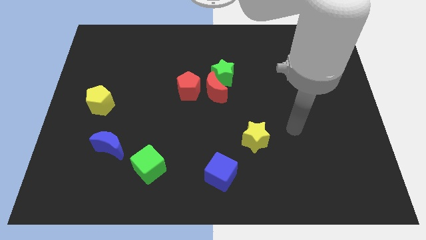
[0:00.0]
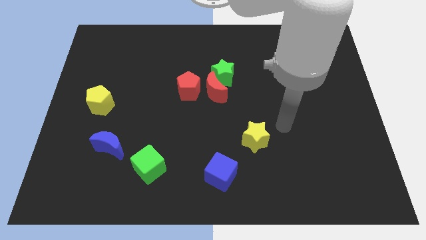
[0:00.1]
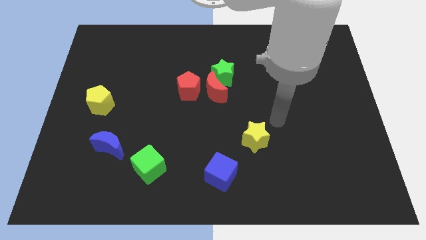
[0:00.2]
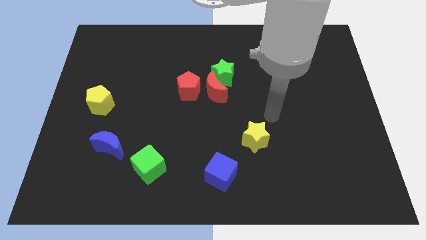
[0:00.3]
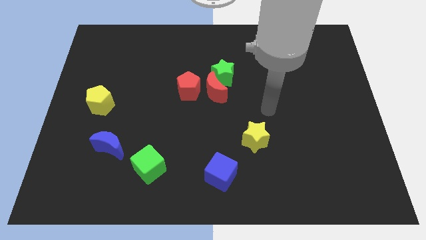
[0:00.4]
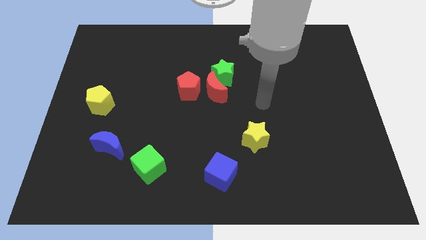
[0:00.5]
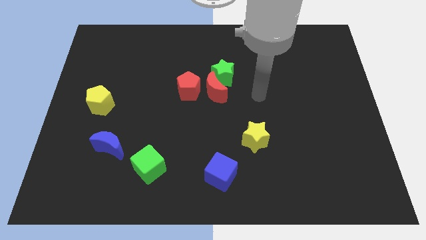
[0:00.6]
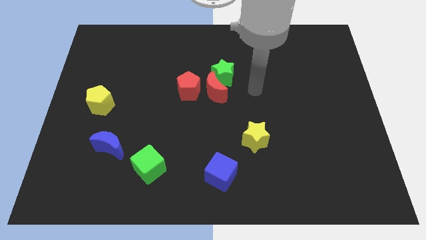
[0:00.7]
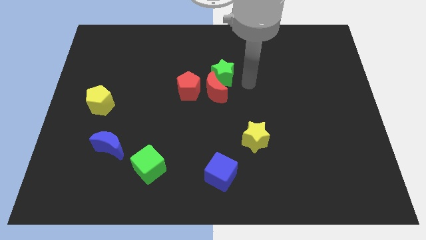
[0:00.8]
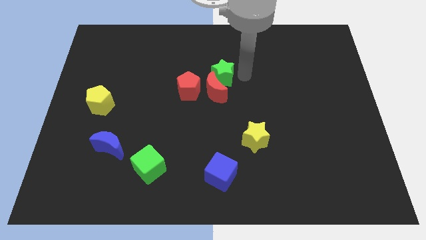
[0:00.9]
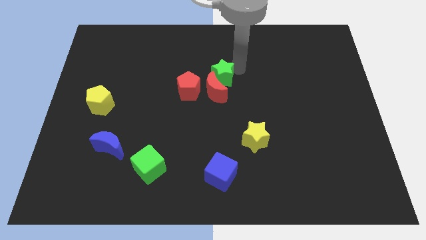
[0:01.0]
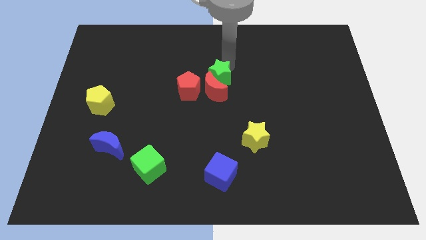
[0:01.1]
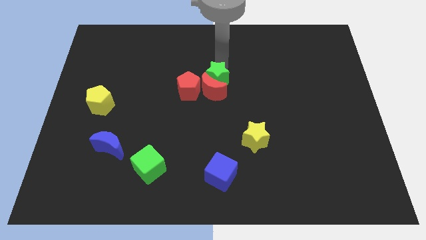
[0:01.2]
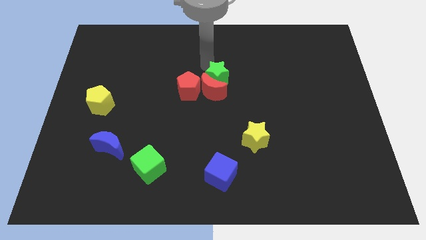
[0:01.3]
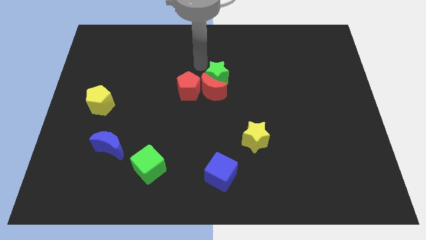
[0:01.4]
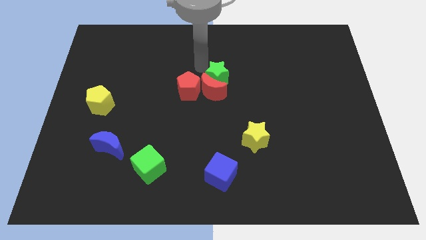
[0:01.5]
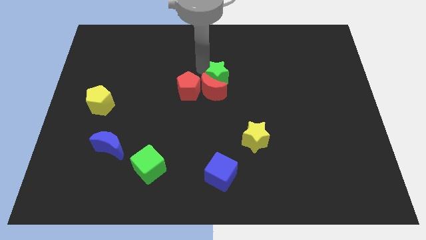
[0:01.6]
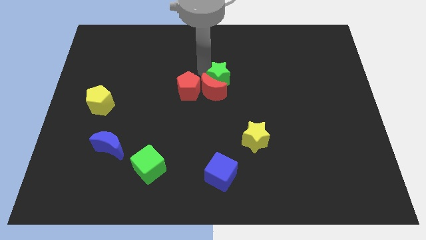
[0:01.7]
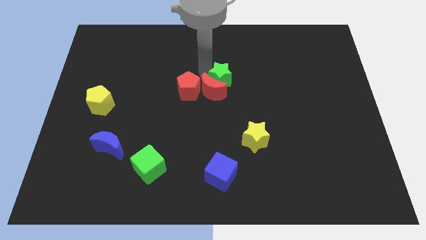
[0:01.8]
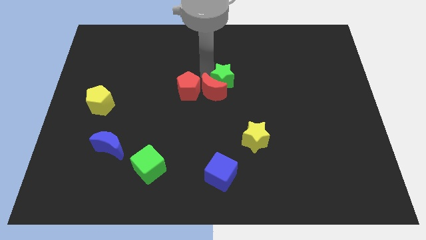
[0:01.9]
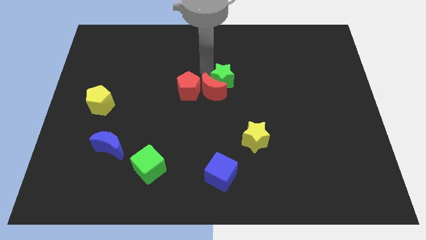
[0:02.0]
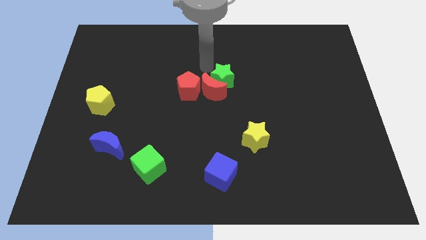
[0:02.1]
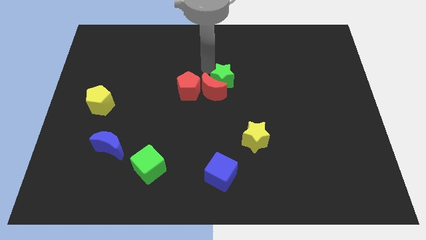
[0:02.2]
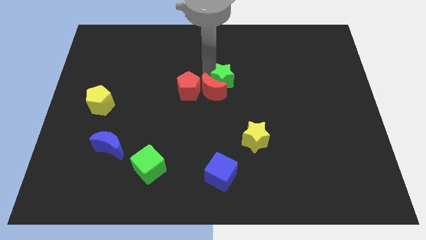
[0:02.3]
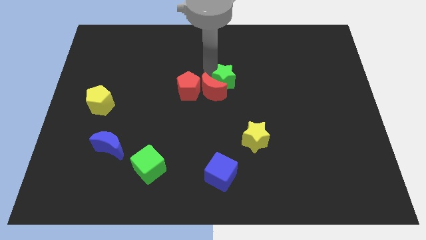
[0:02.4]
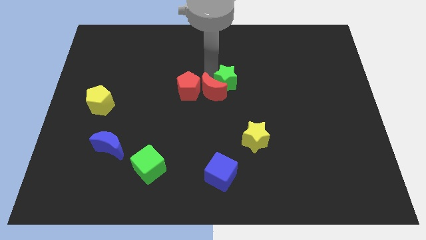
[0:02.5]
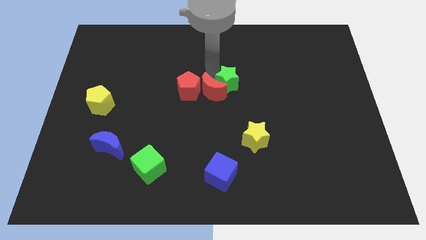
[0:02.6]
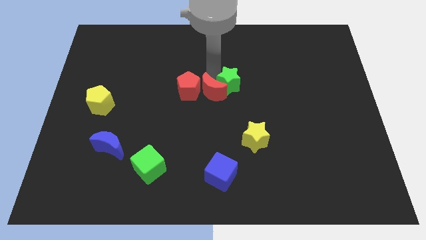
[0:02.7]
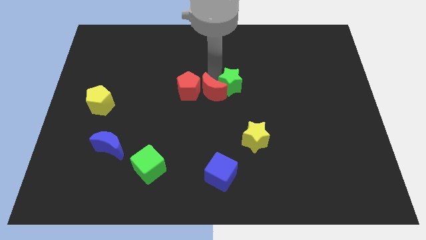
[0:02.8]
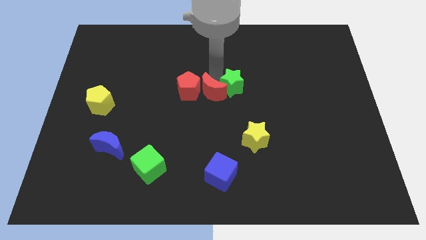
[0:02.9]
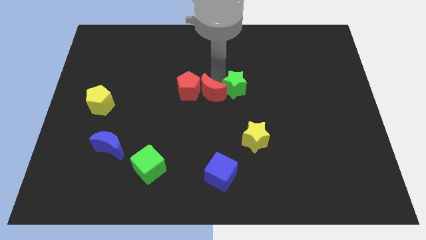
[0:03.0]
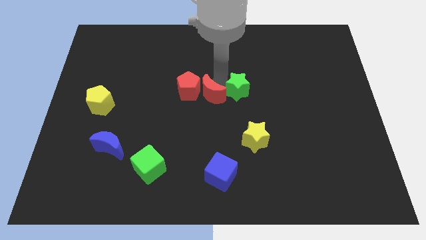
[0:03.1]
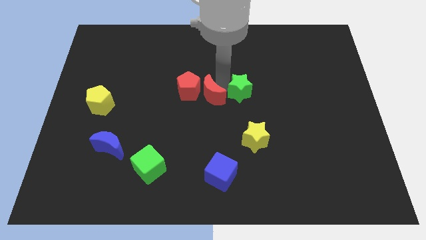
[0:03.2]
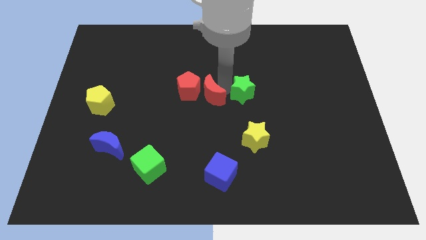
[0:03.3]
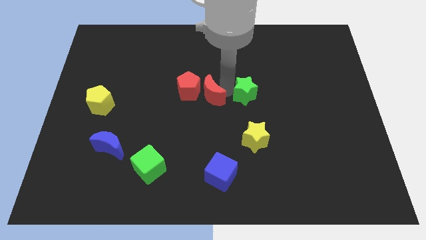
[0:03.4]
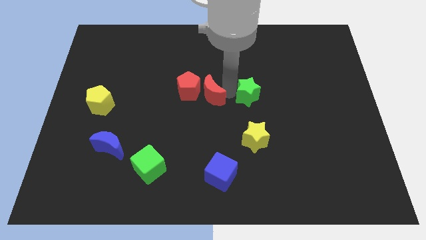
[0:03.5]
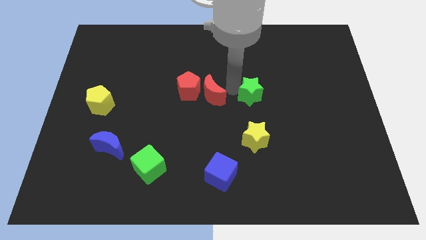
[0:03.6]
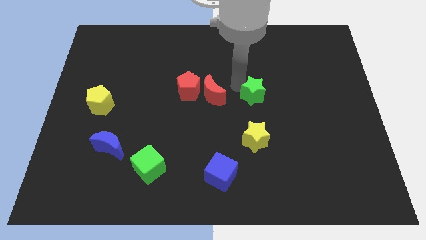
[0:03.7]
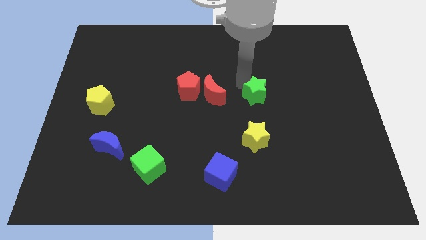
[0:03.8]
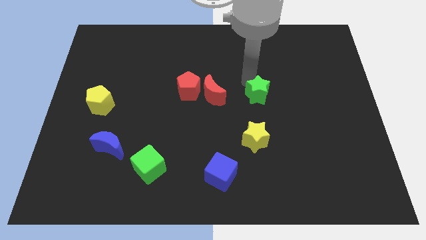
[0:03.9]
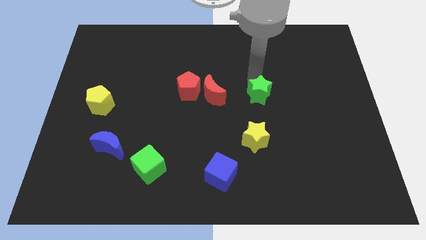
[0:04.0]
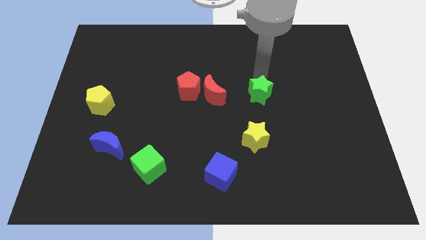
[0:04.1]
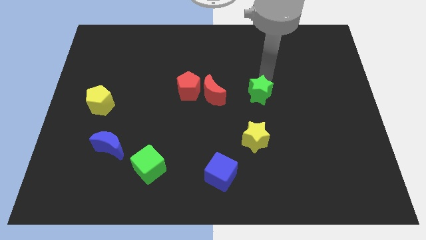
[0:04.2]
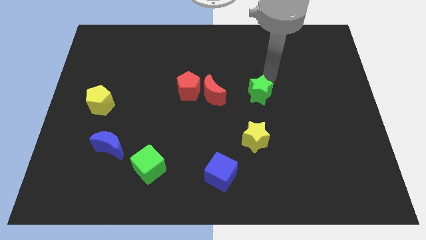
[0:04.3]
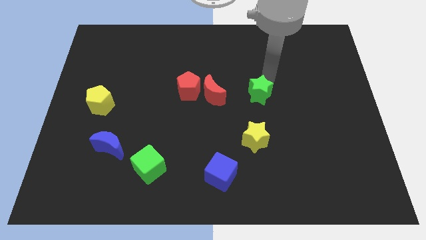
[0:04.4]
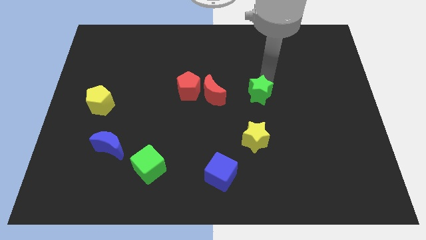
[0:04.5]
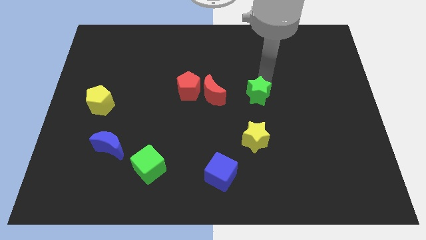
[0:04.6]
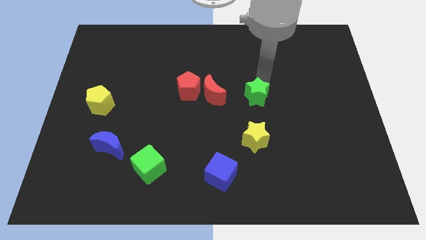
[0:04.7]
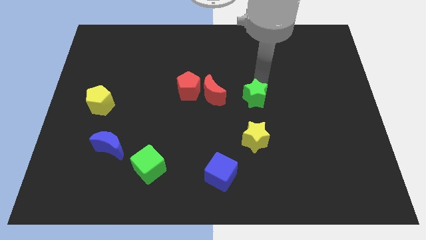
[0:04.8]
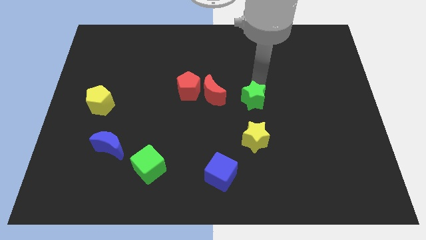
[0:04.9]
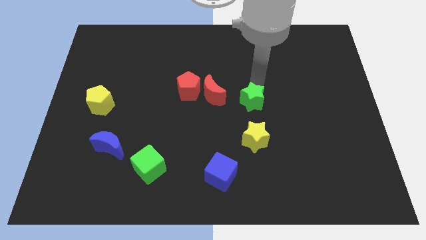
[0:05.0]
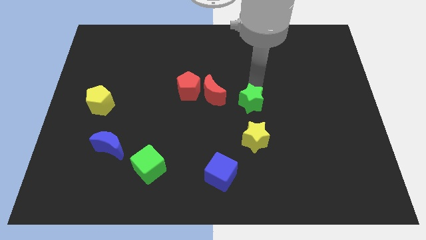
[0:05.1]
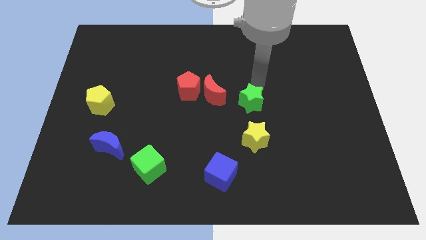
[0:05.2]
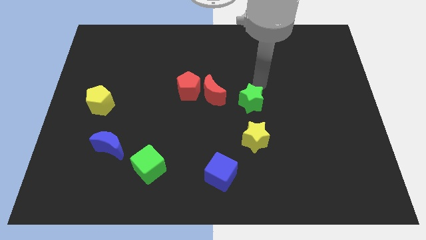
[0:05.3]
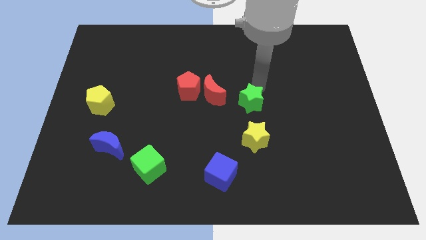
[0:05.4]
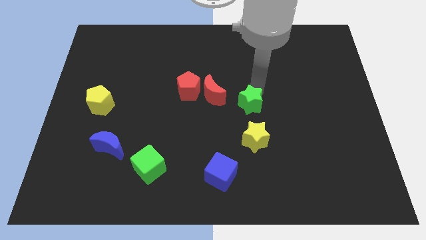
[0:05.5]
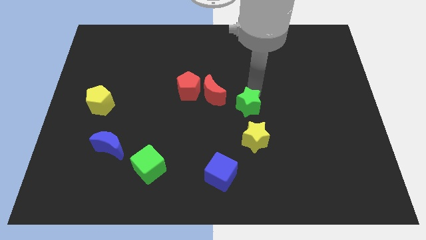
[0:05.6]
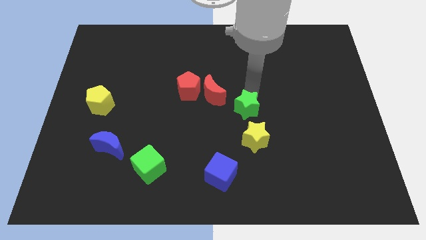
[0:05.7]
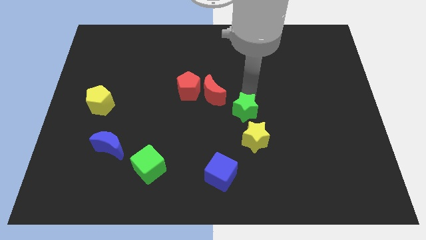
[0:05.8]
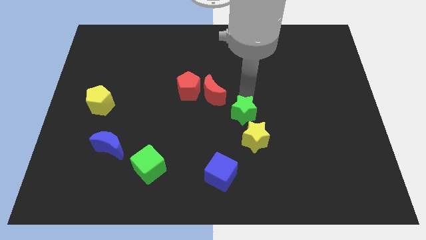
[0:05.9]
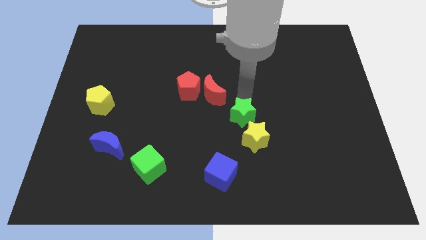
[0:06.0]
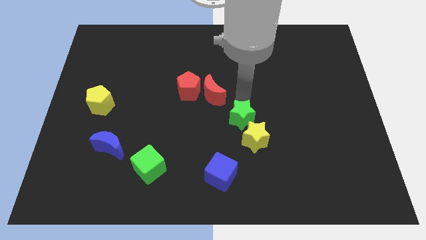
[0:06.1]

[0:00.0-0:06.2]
move the green star towards the yellow star

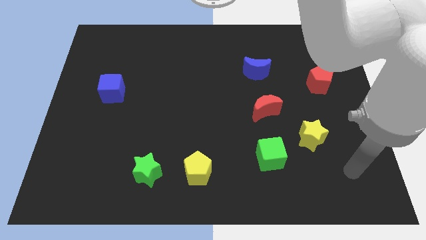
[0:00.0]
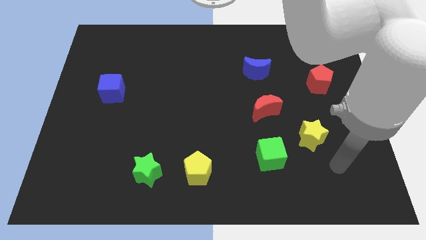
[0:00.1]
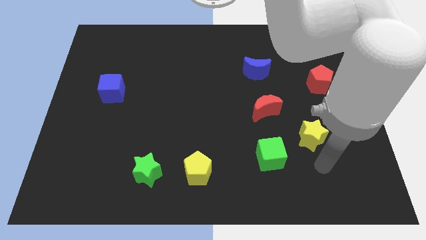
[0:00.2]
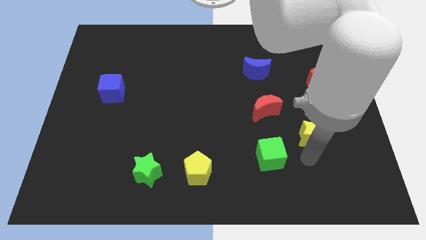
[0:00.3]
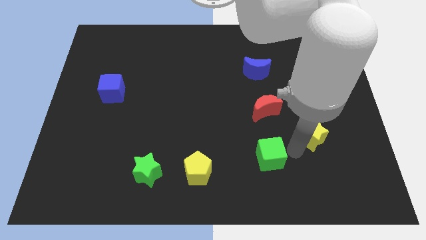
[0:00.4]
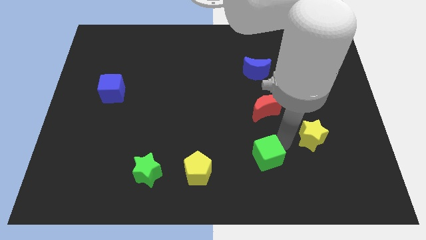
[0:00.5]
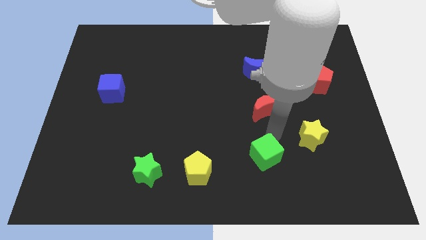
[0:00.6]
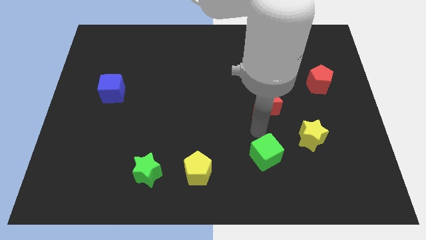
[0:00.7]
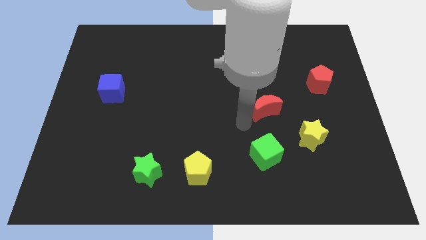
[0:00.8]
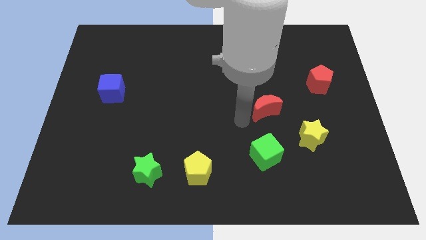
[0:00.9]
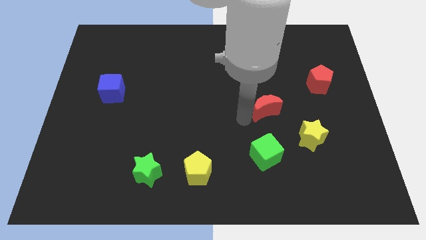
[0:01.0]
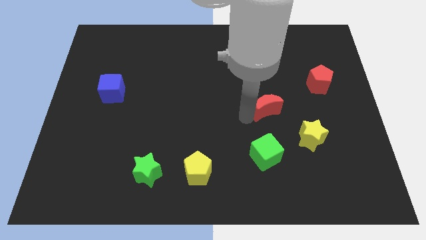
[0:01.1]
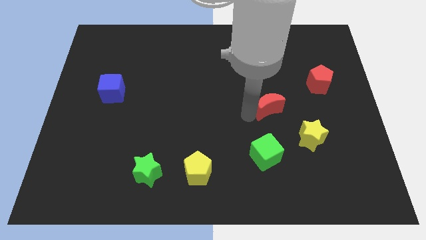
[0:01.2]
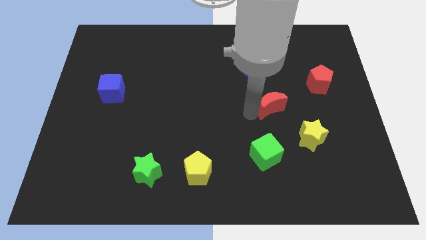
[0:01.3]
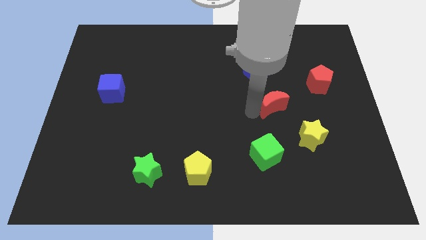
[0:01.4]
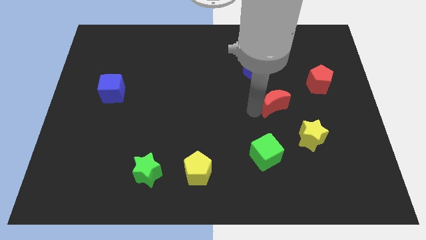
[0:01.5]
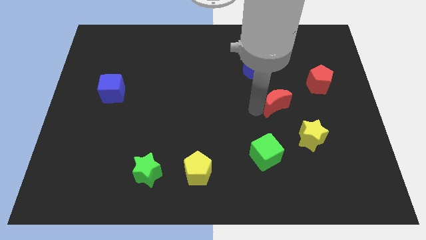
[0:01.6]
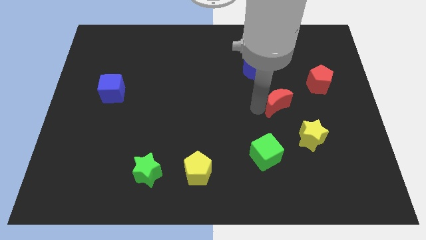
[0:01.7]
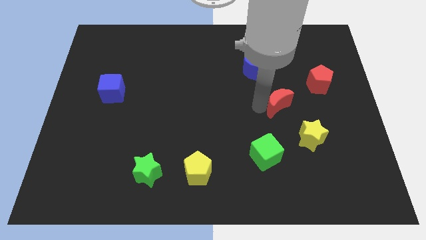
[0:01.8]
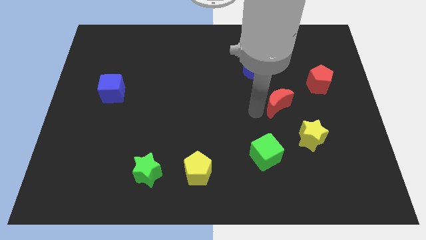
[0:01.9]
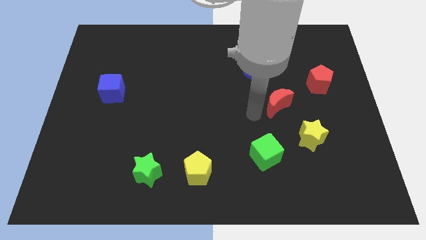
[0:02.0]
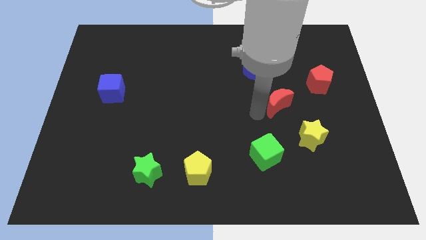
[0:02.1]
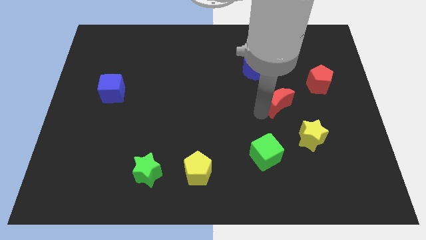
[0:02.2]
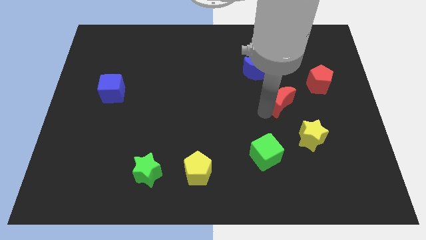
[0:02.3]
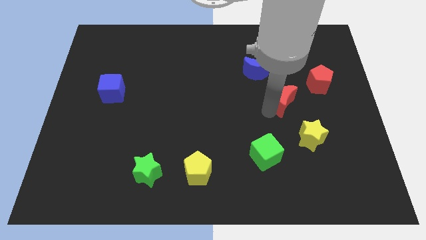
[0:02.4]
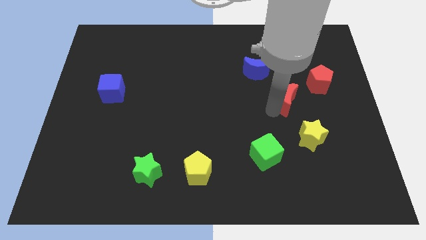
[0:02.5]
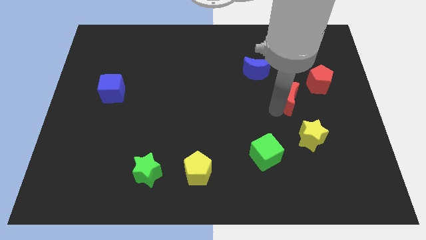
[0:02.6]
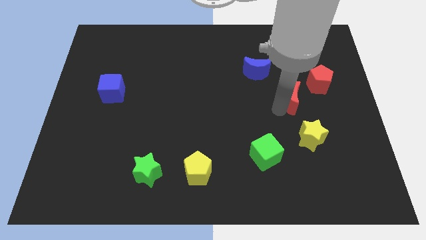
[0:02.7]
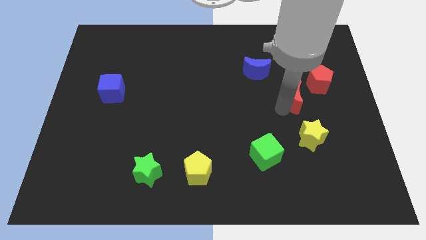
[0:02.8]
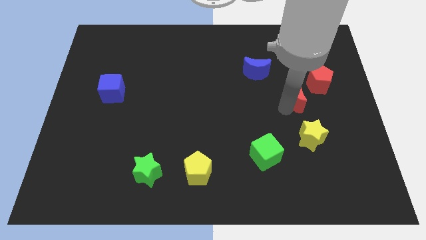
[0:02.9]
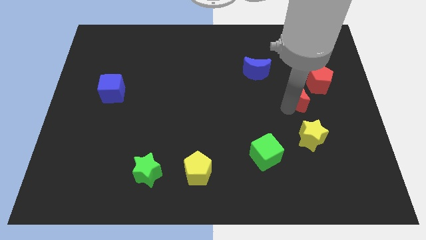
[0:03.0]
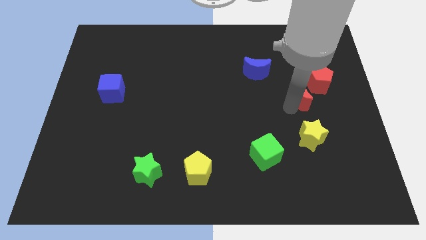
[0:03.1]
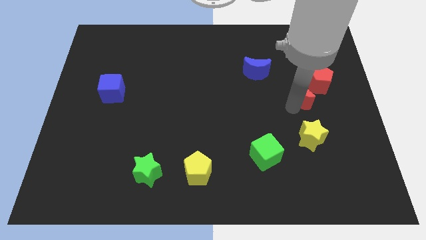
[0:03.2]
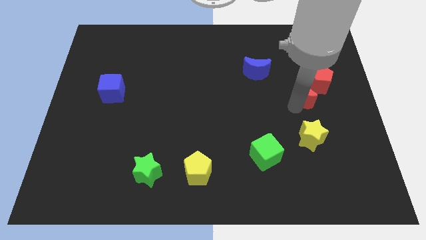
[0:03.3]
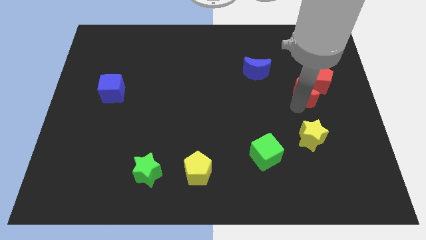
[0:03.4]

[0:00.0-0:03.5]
slide the red moon close to the red pentagon
